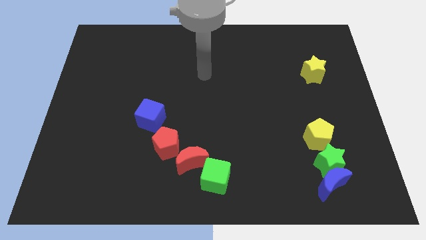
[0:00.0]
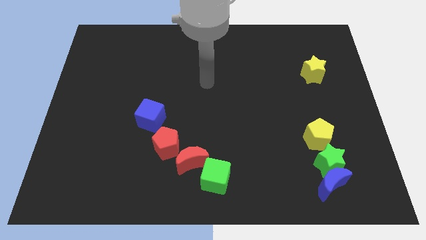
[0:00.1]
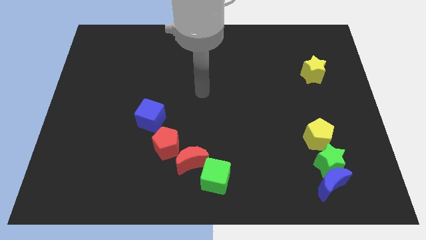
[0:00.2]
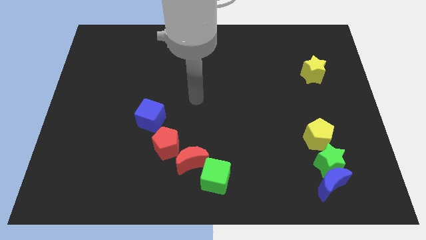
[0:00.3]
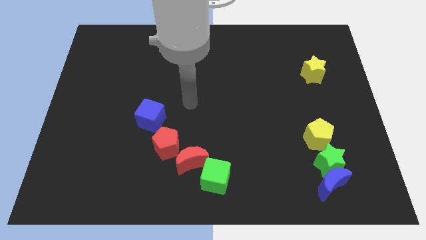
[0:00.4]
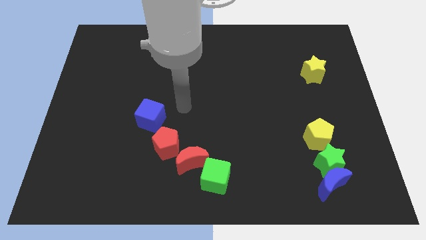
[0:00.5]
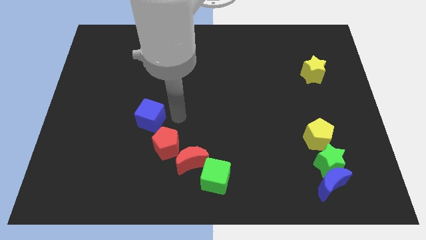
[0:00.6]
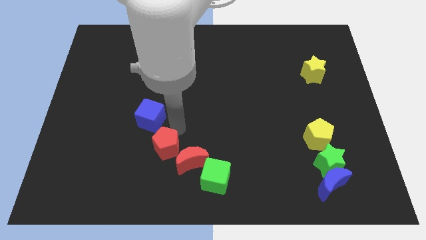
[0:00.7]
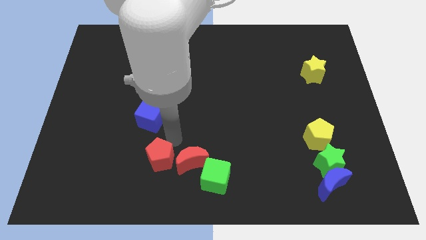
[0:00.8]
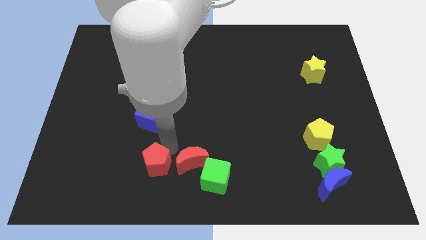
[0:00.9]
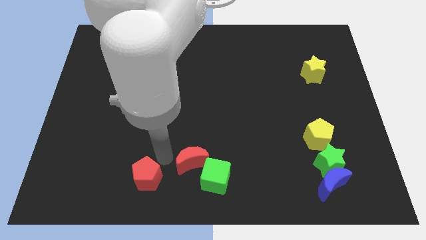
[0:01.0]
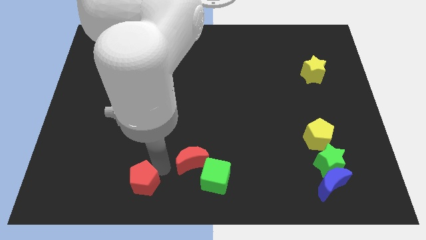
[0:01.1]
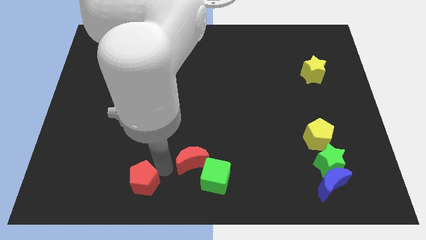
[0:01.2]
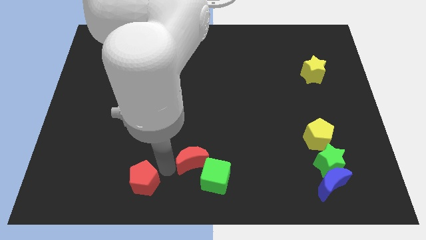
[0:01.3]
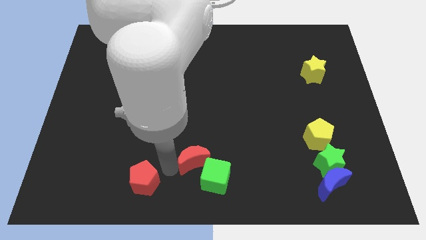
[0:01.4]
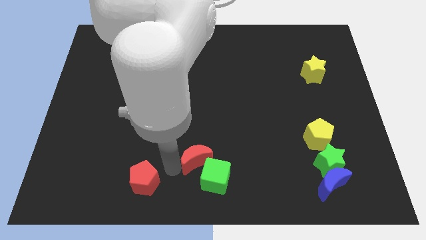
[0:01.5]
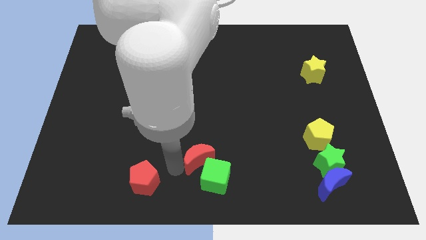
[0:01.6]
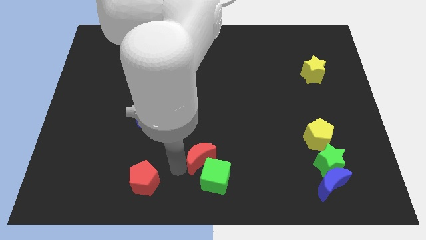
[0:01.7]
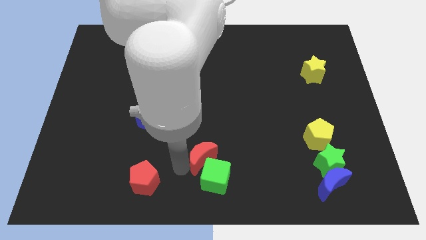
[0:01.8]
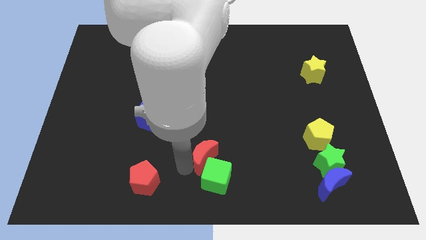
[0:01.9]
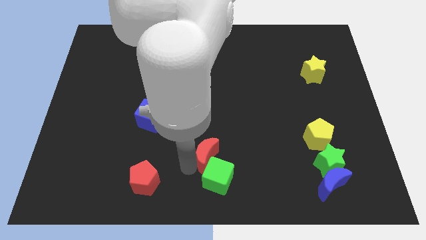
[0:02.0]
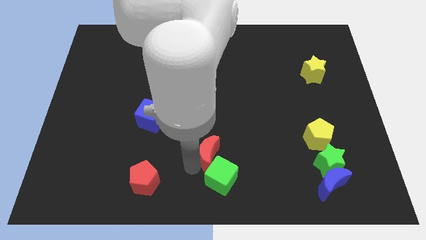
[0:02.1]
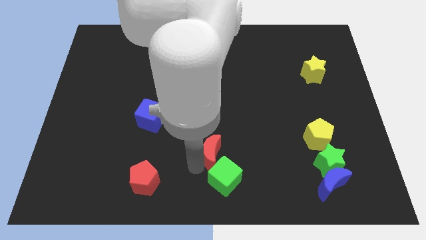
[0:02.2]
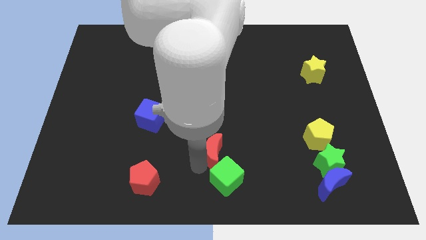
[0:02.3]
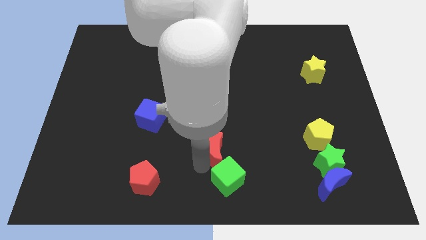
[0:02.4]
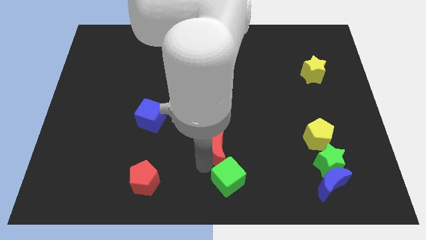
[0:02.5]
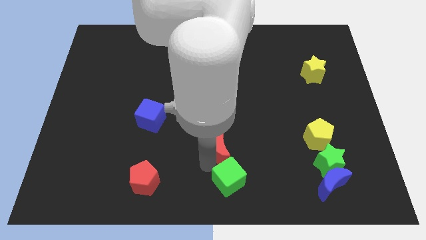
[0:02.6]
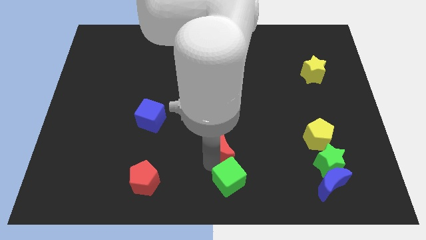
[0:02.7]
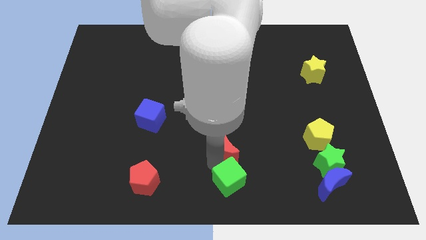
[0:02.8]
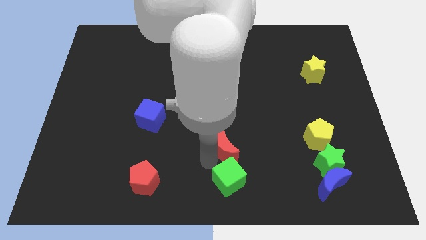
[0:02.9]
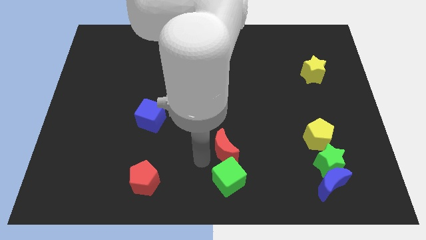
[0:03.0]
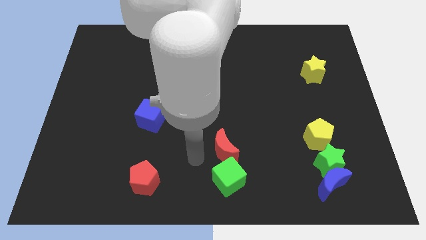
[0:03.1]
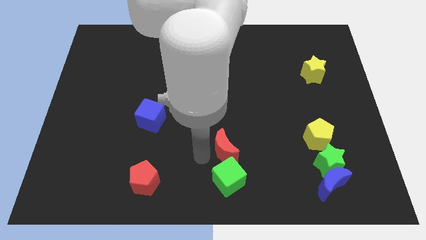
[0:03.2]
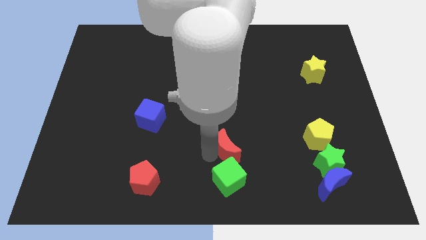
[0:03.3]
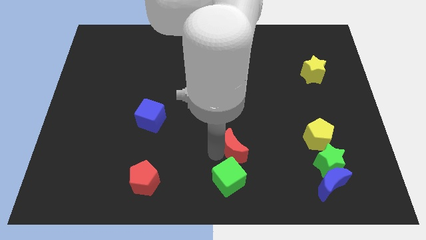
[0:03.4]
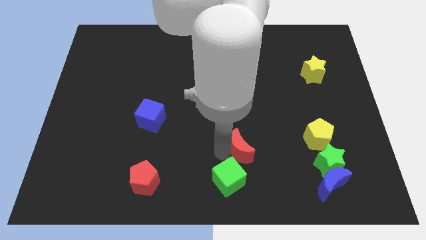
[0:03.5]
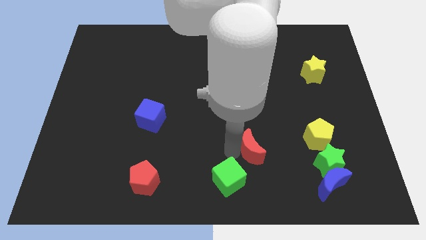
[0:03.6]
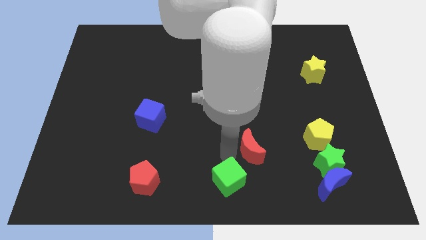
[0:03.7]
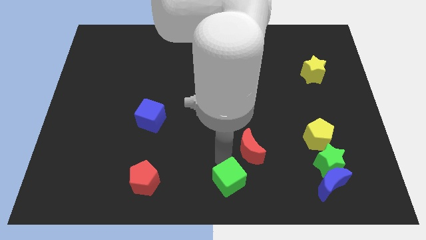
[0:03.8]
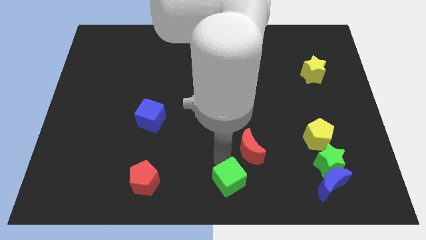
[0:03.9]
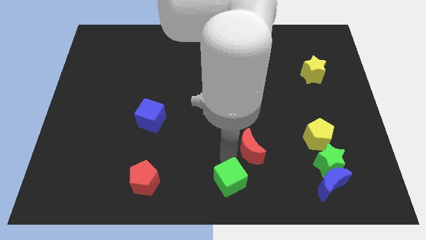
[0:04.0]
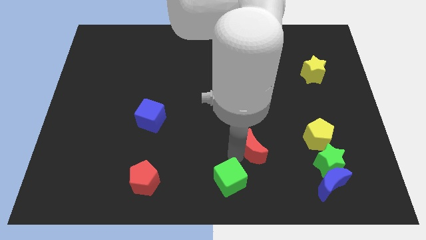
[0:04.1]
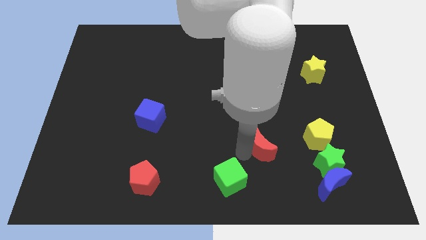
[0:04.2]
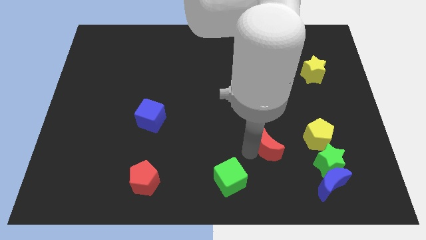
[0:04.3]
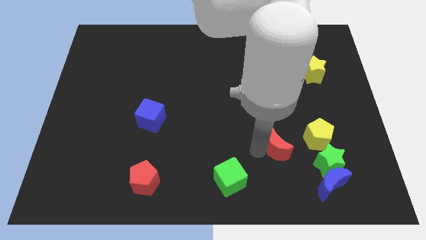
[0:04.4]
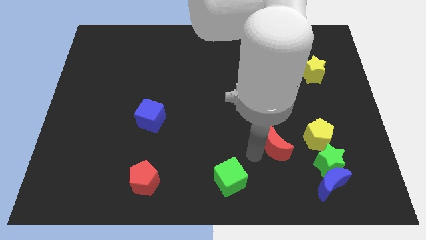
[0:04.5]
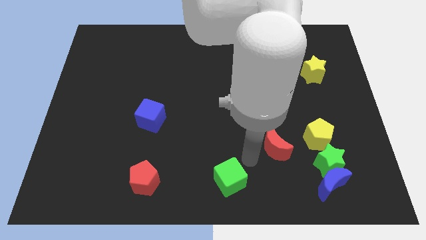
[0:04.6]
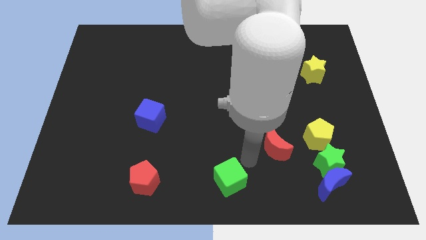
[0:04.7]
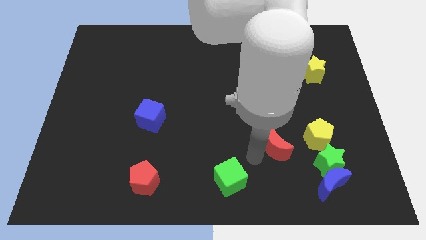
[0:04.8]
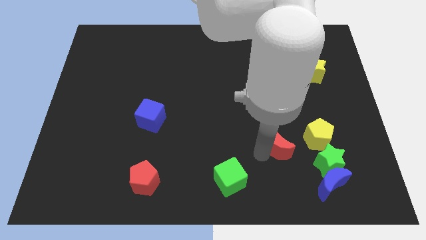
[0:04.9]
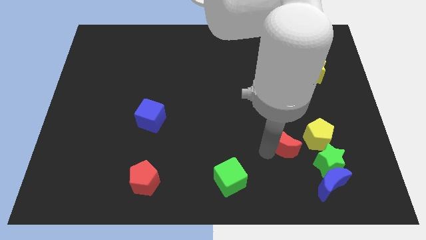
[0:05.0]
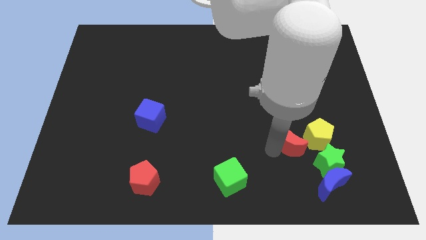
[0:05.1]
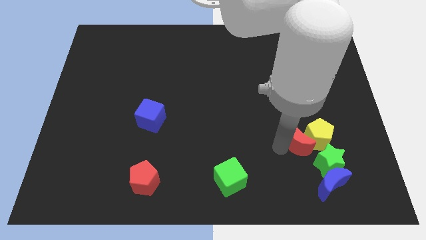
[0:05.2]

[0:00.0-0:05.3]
push the red moon to the yellow pentagon

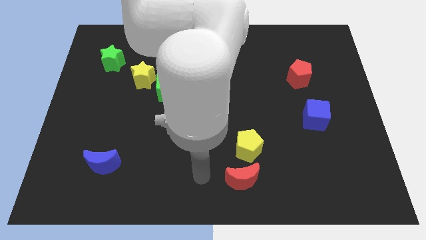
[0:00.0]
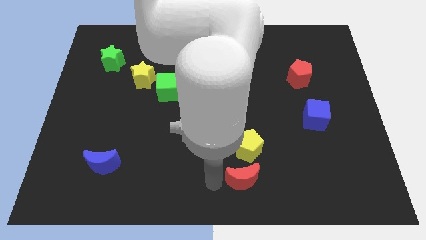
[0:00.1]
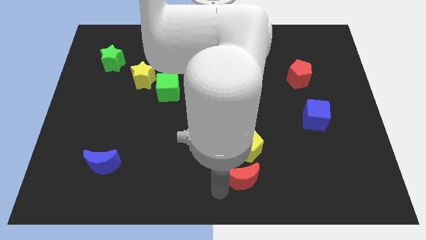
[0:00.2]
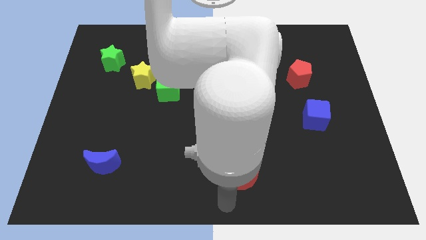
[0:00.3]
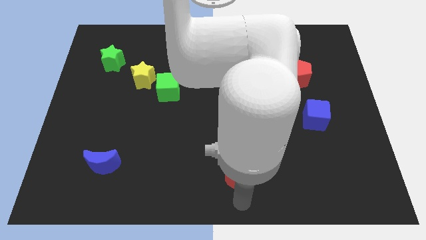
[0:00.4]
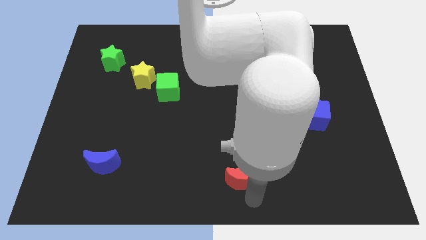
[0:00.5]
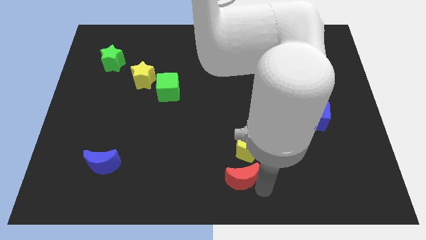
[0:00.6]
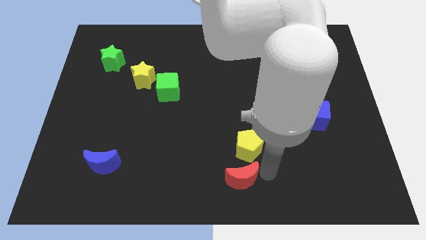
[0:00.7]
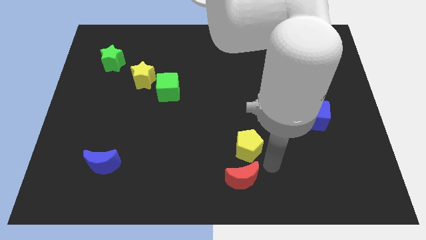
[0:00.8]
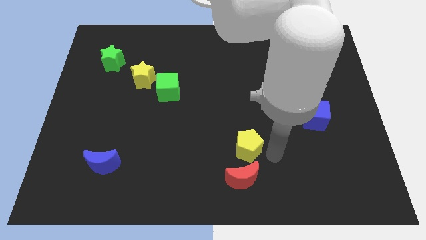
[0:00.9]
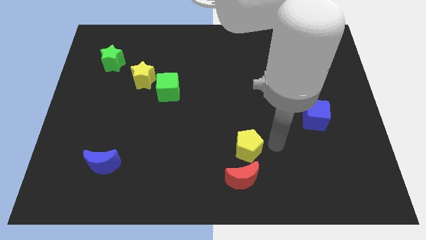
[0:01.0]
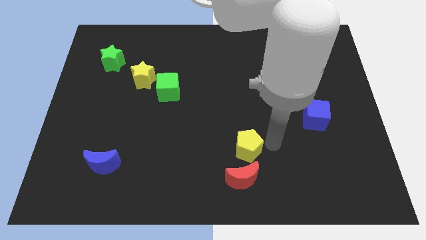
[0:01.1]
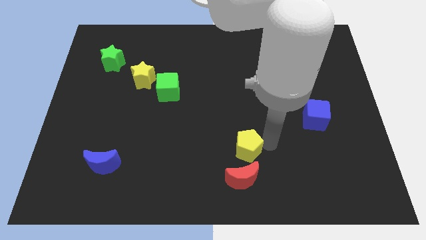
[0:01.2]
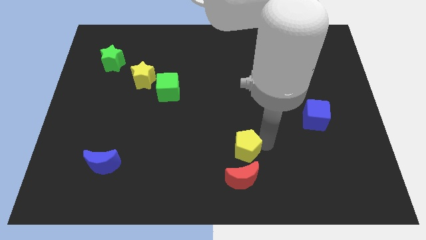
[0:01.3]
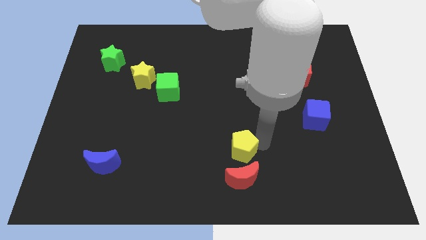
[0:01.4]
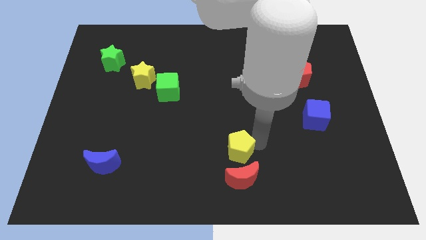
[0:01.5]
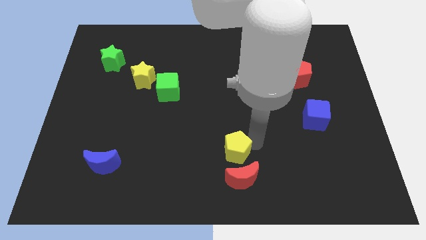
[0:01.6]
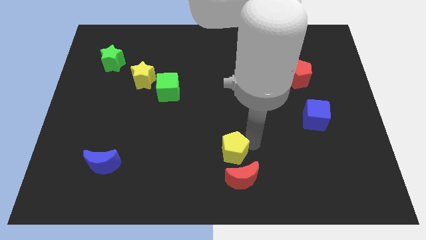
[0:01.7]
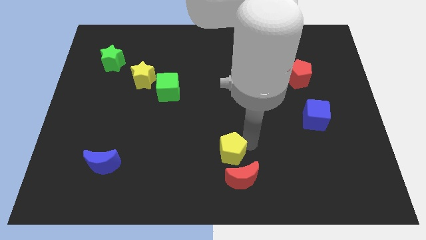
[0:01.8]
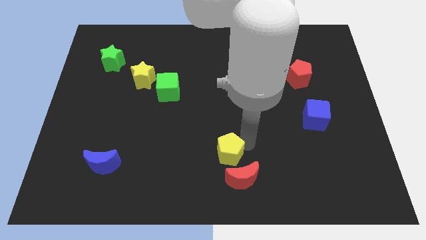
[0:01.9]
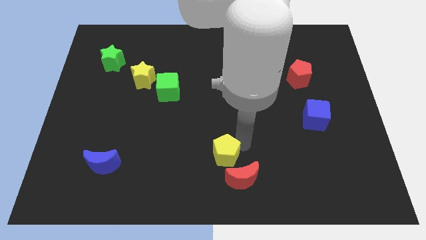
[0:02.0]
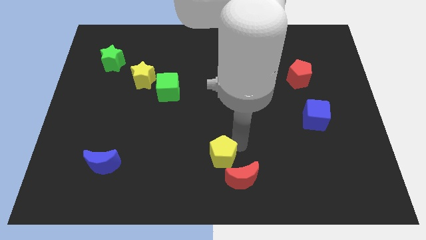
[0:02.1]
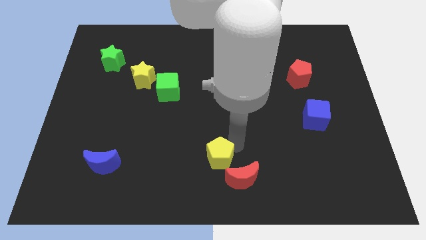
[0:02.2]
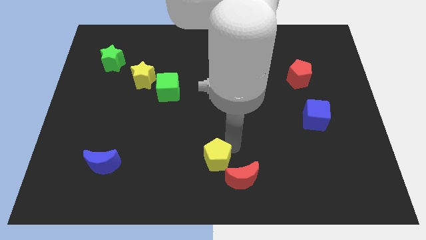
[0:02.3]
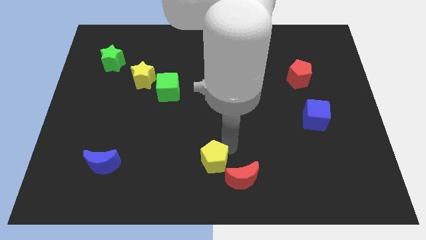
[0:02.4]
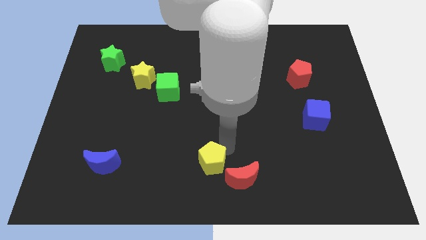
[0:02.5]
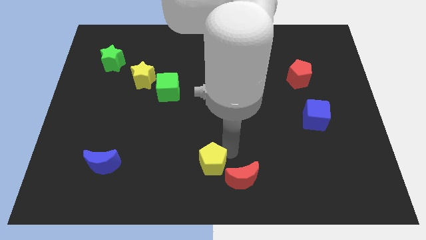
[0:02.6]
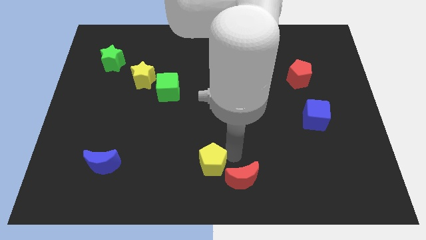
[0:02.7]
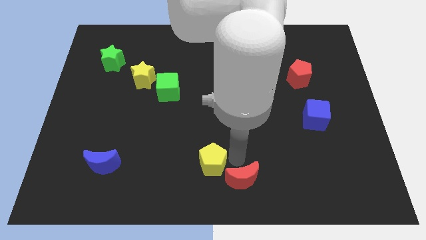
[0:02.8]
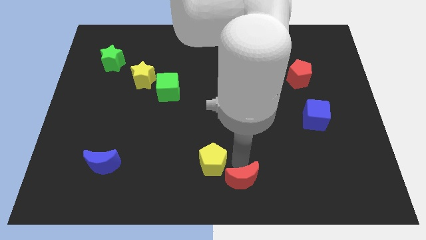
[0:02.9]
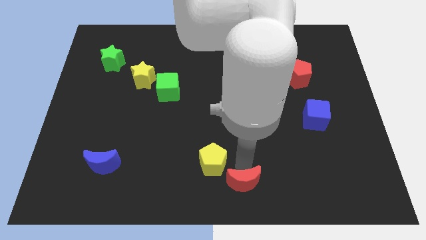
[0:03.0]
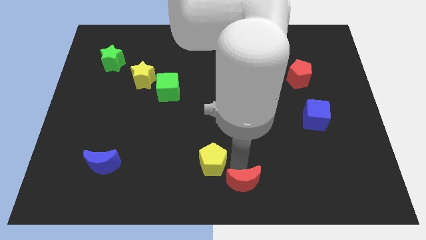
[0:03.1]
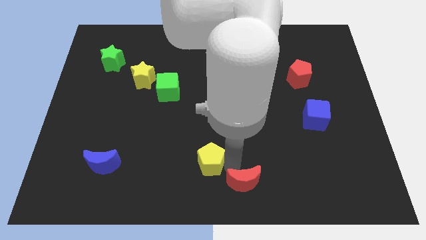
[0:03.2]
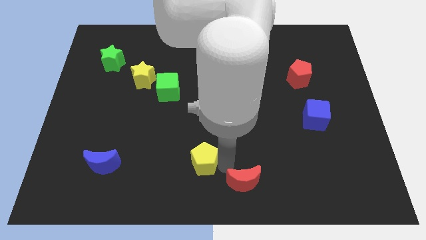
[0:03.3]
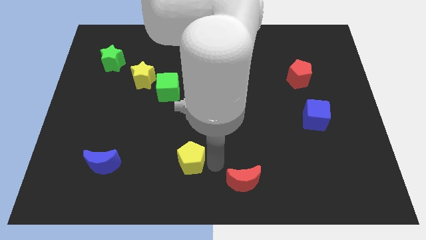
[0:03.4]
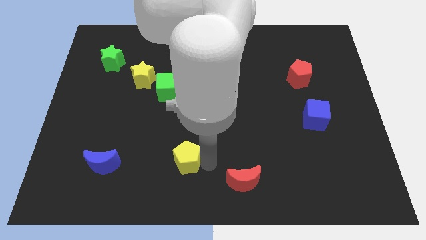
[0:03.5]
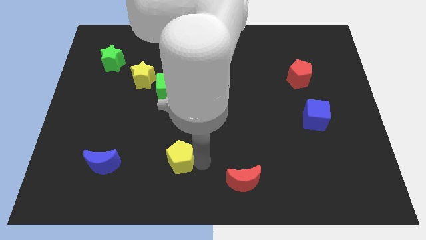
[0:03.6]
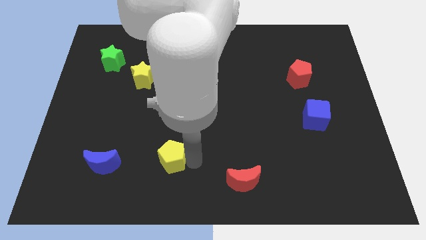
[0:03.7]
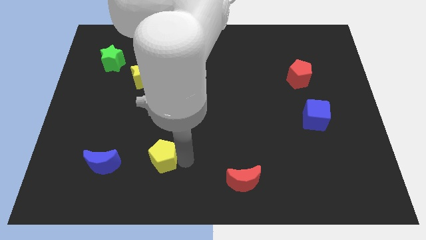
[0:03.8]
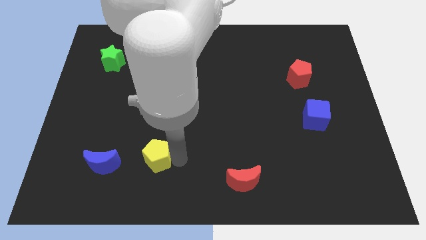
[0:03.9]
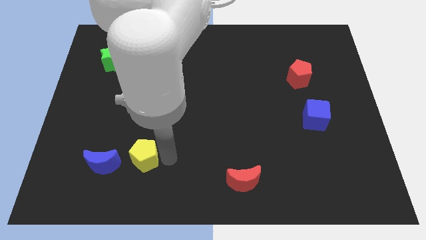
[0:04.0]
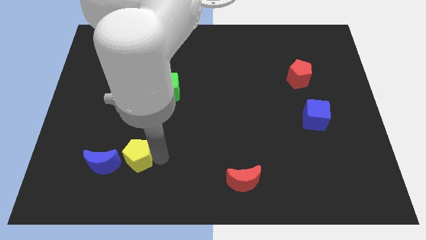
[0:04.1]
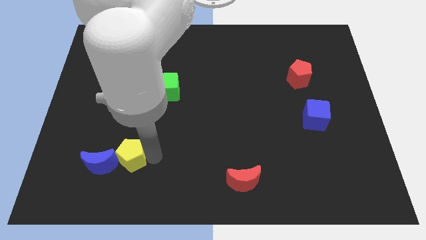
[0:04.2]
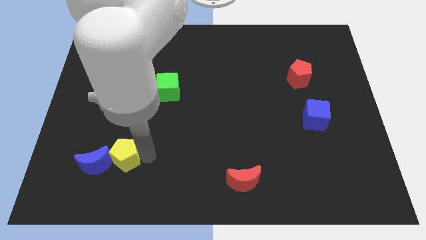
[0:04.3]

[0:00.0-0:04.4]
push the yellow pentagon to the blue moon
